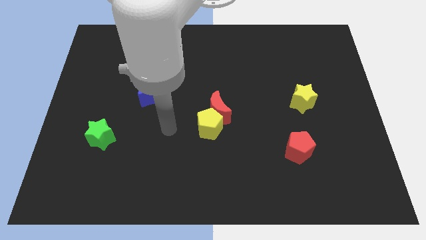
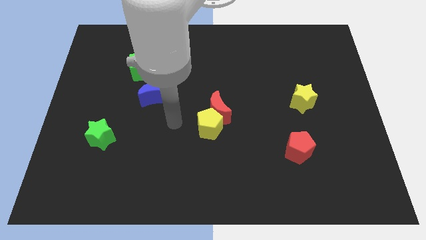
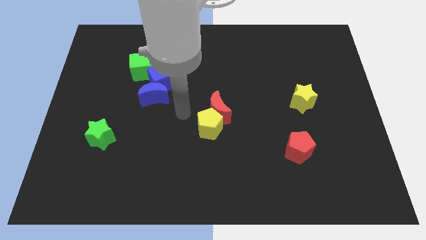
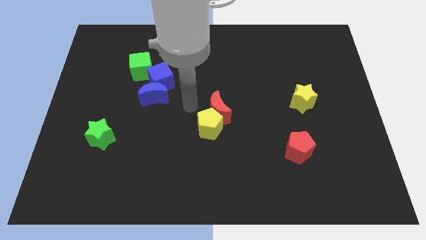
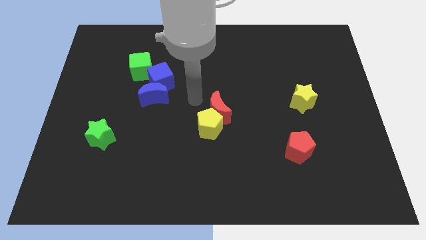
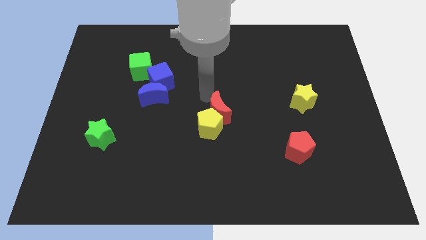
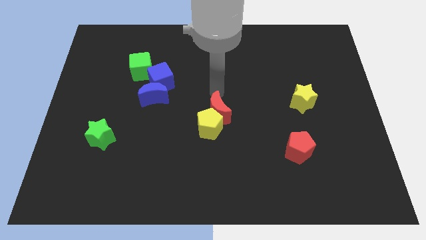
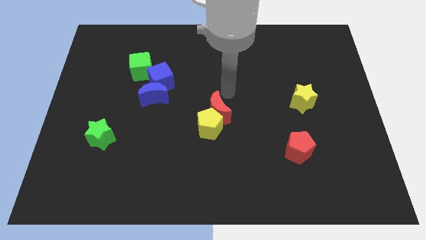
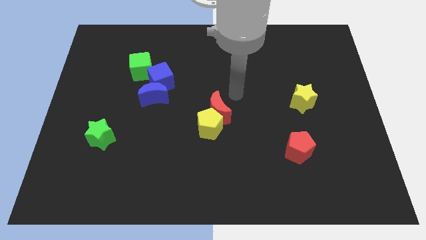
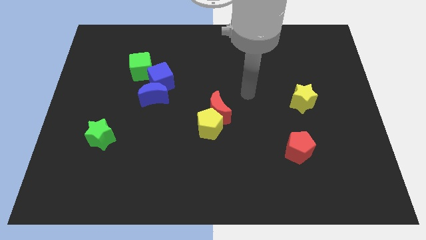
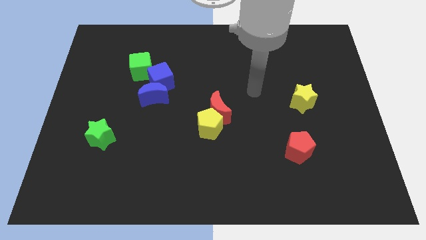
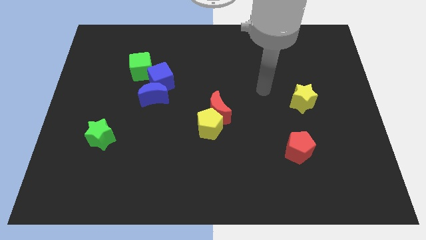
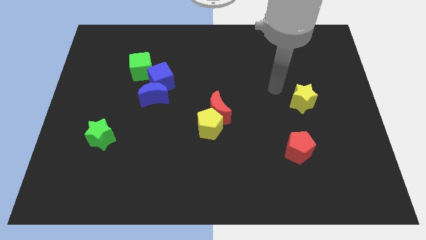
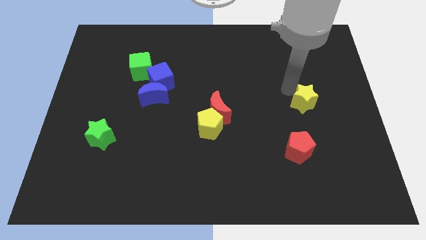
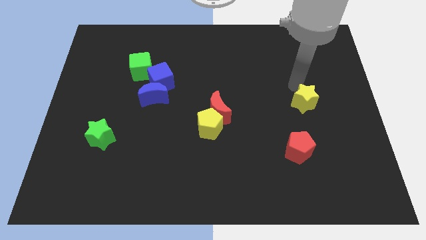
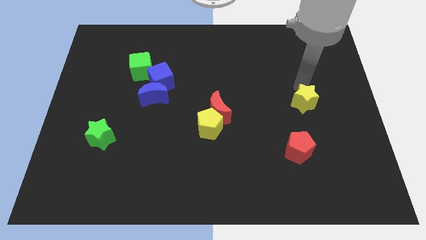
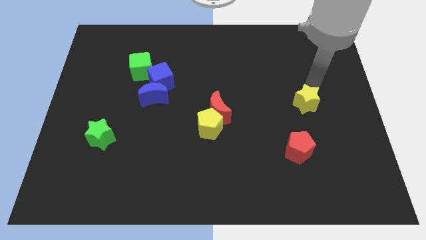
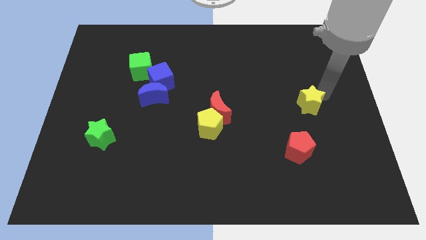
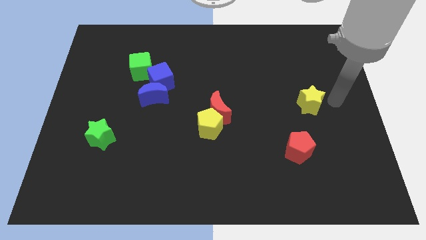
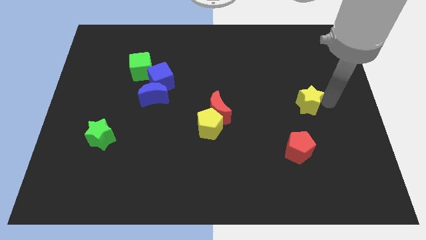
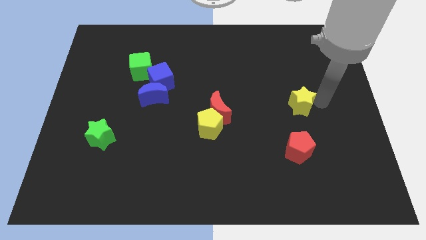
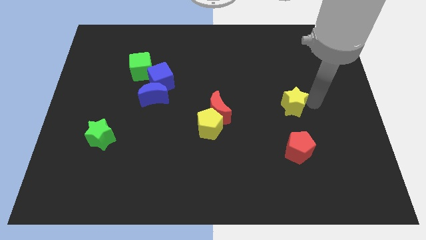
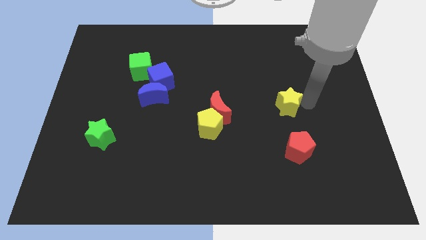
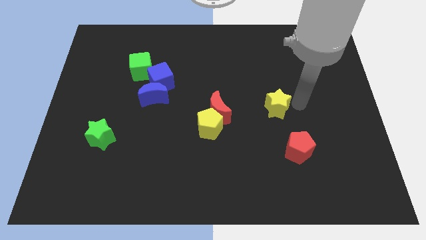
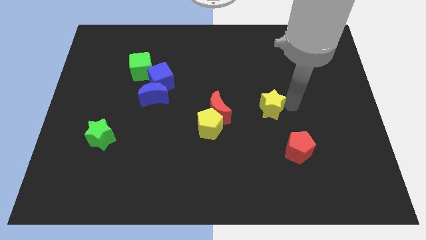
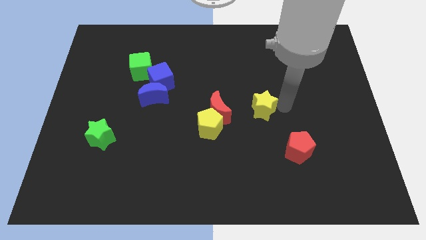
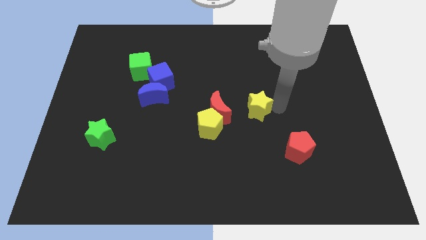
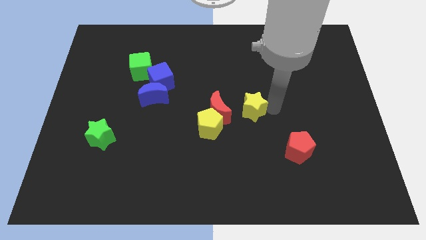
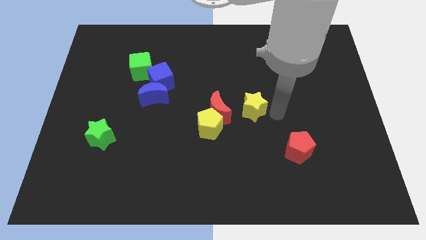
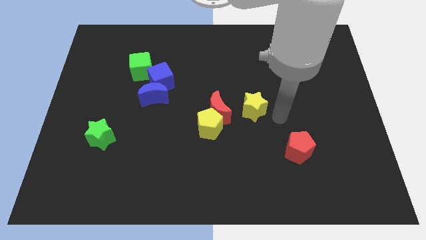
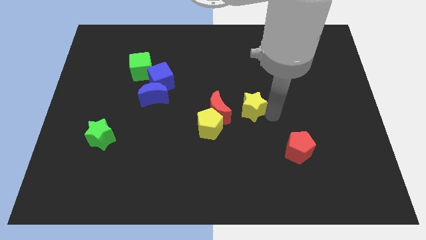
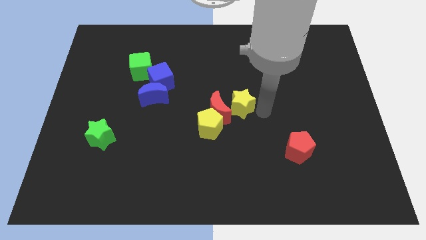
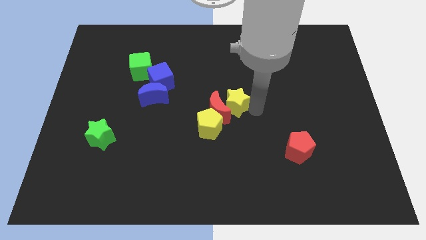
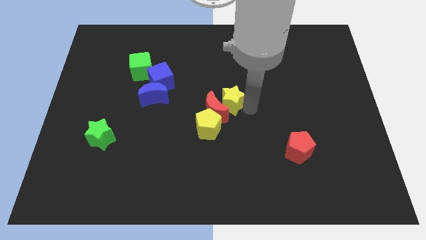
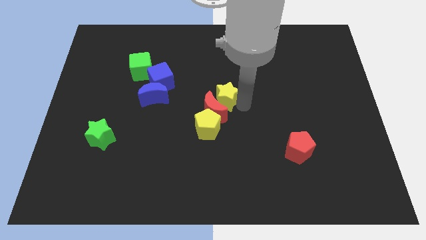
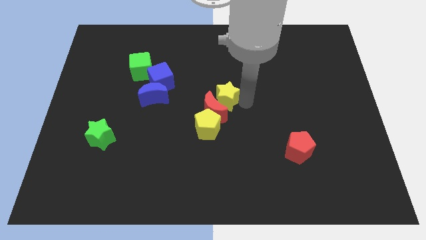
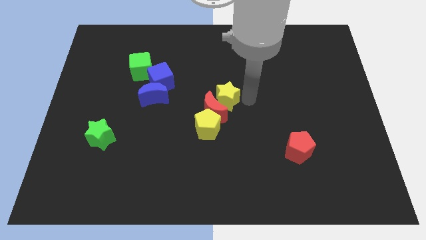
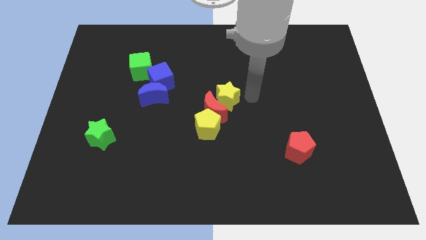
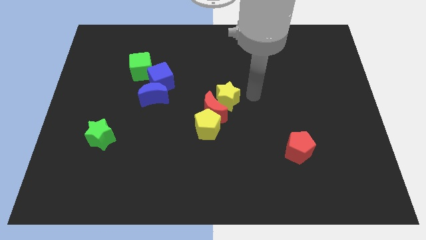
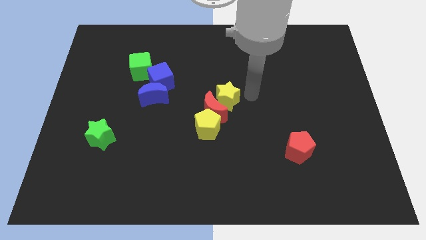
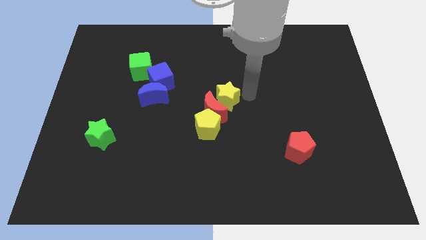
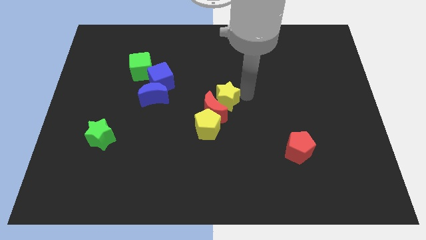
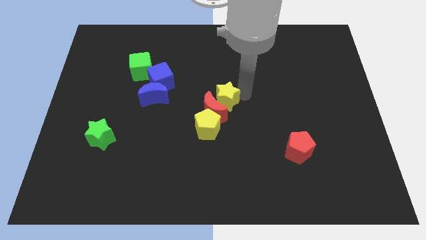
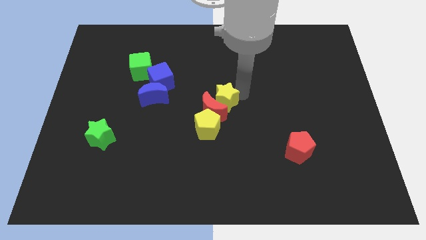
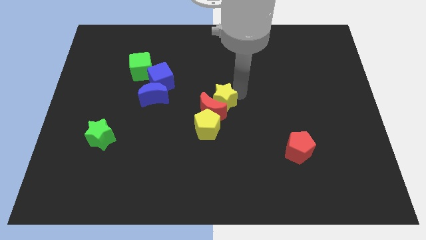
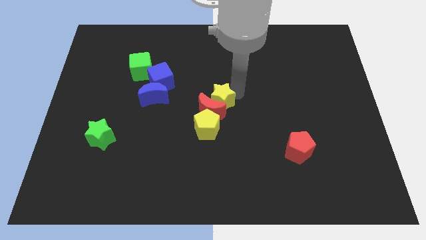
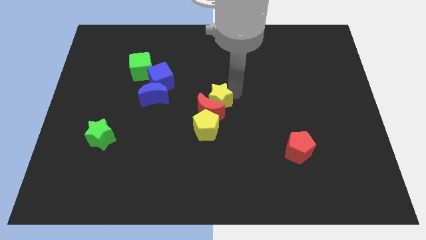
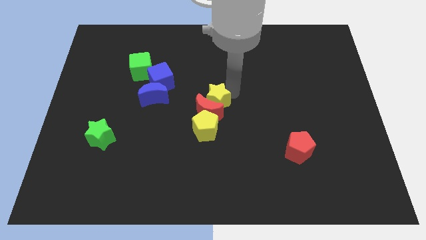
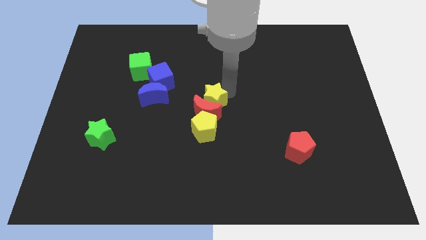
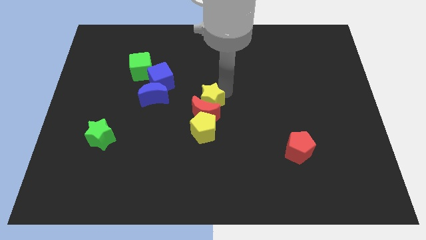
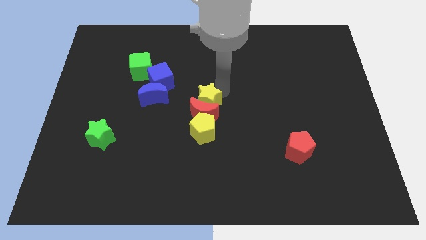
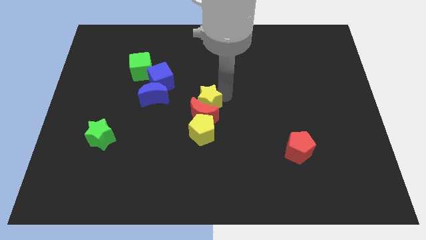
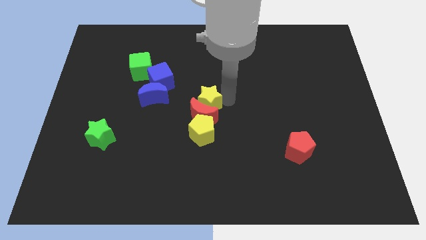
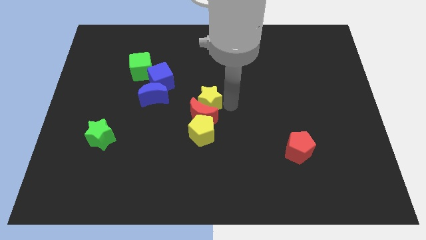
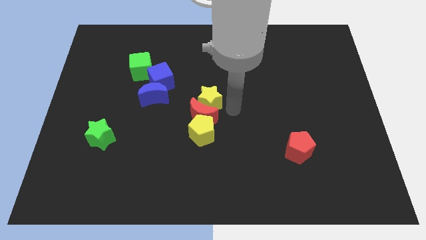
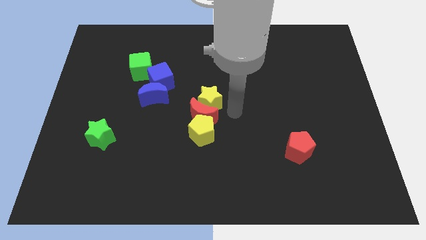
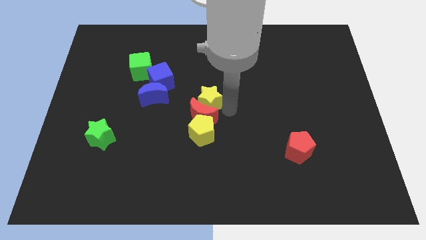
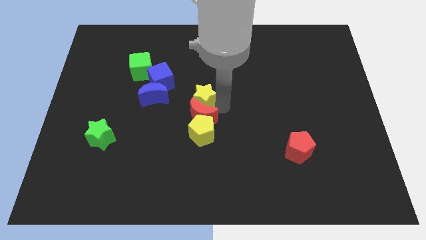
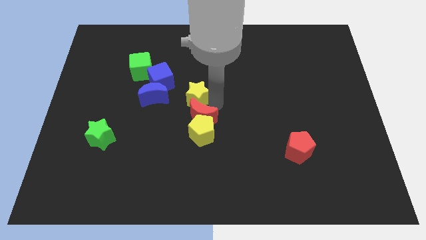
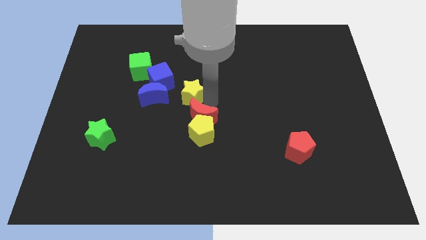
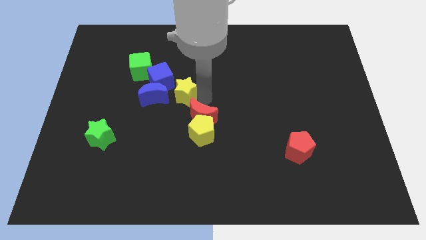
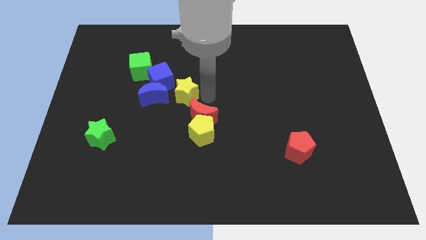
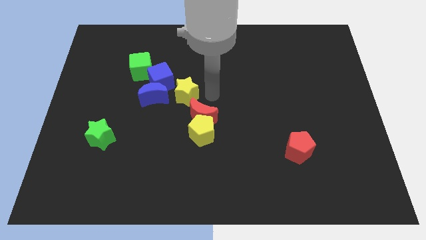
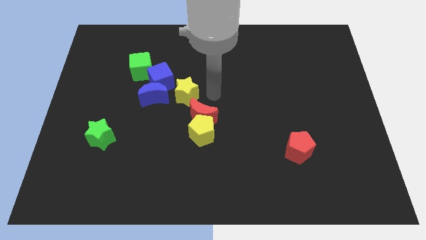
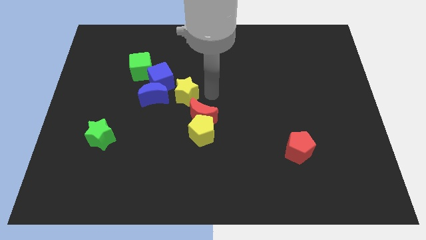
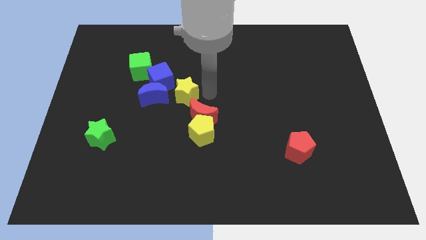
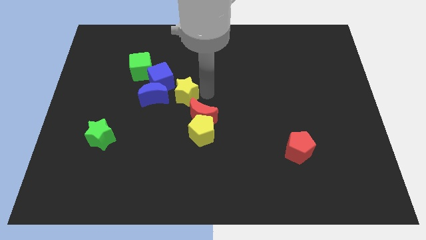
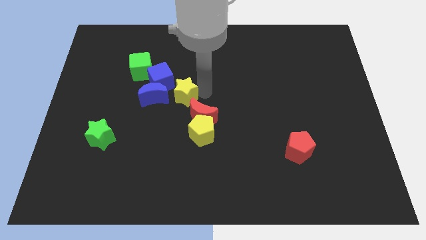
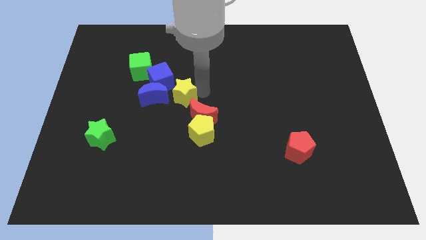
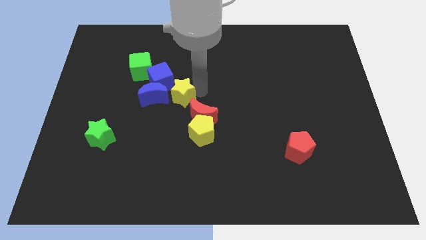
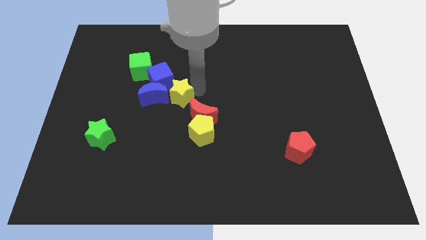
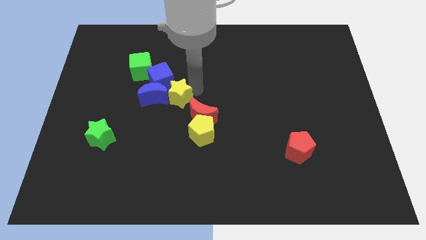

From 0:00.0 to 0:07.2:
move the yellow star towards the blue moon

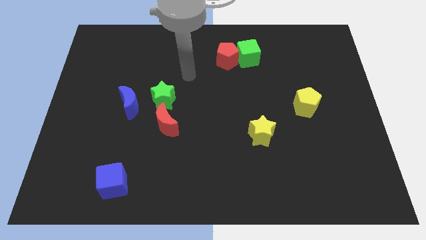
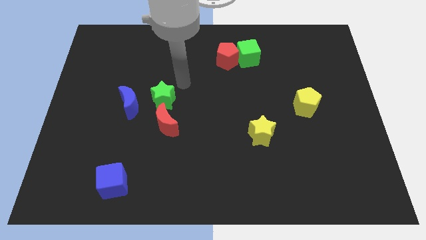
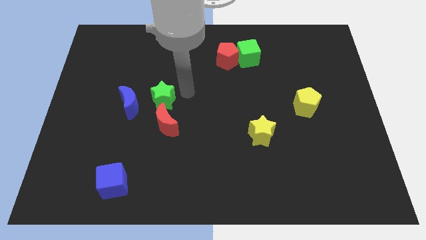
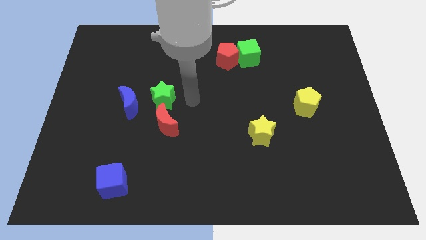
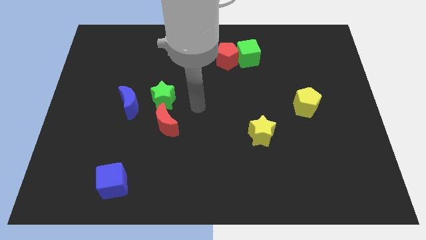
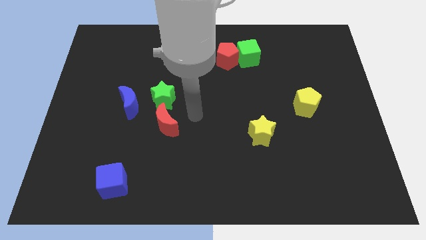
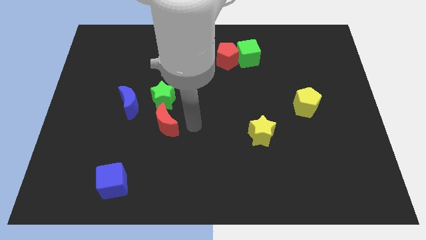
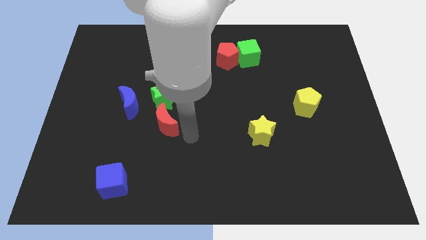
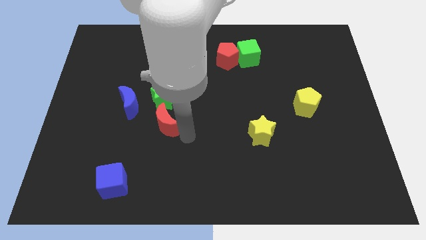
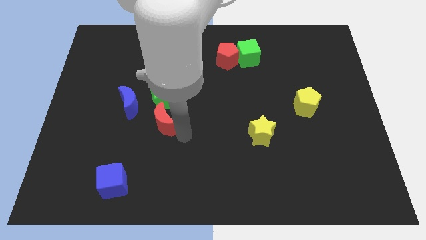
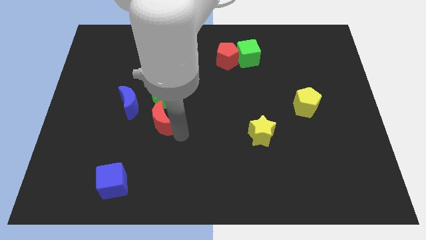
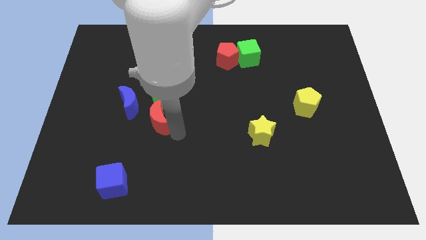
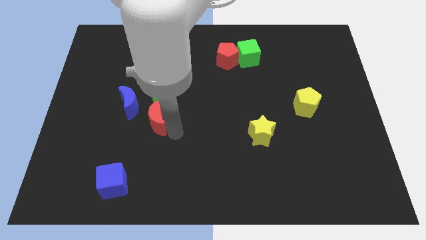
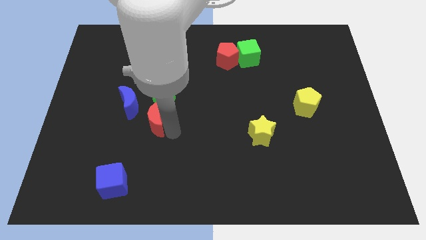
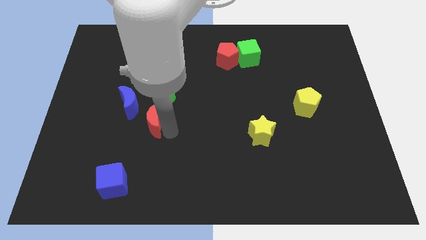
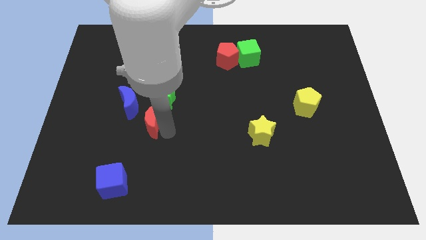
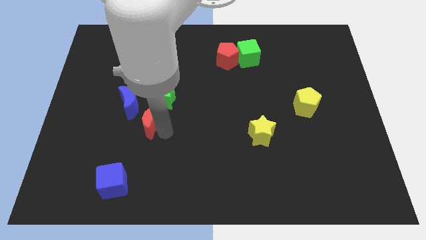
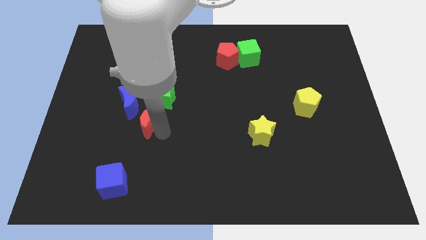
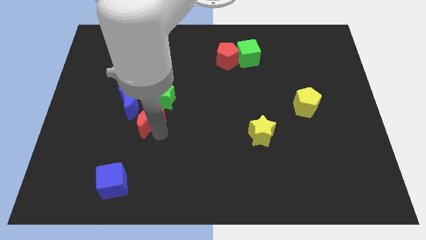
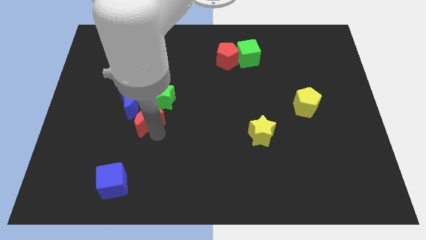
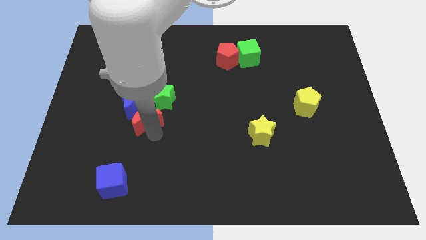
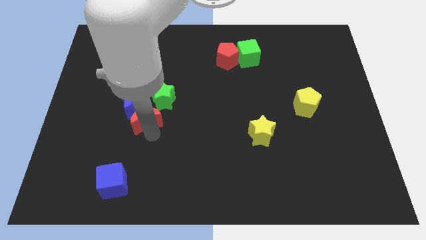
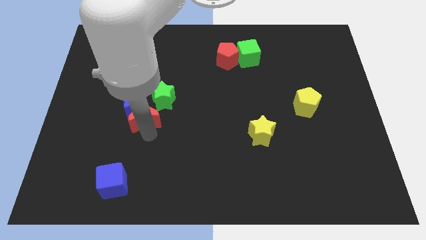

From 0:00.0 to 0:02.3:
push the red moon to the blue moon
